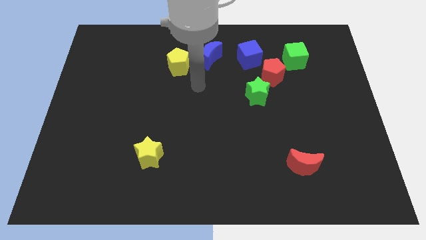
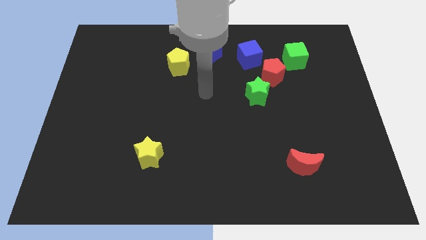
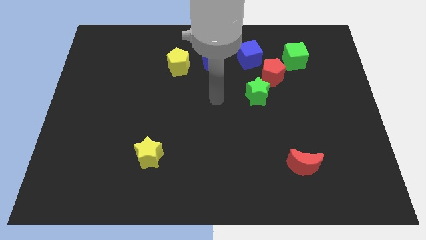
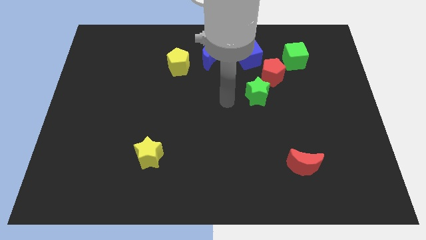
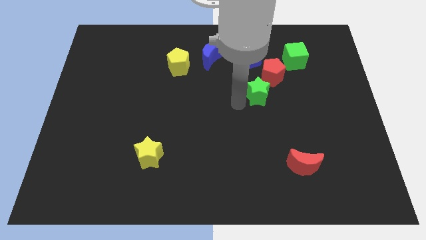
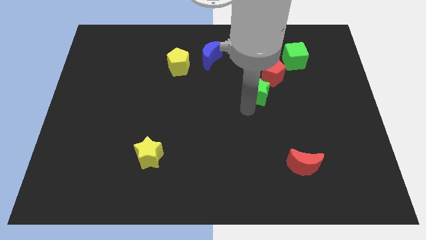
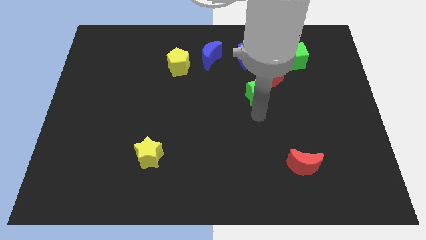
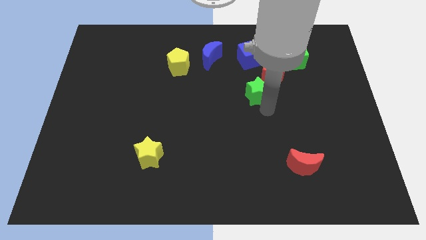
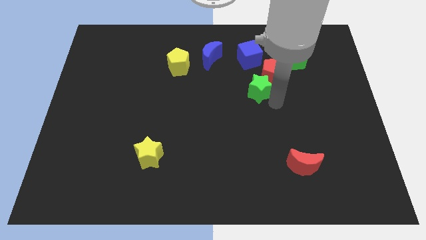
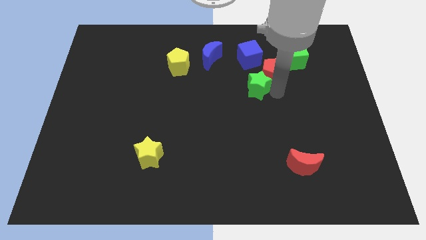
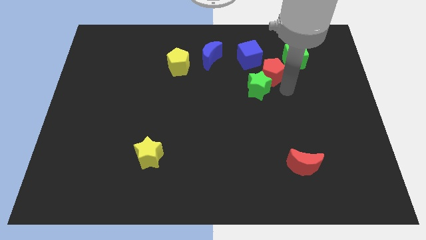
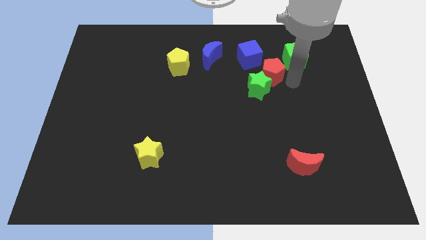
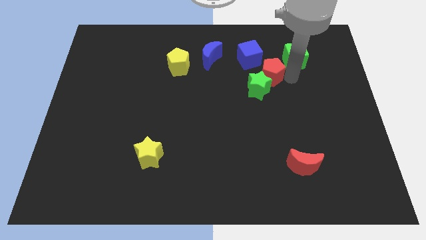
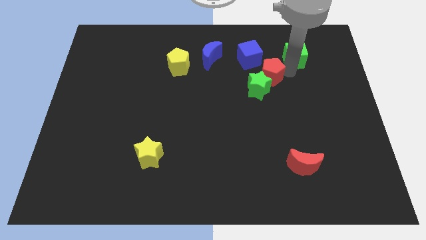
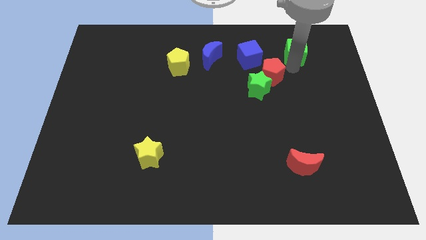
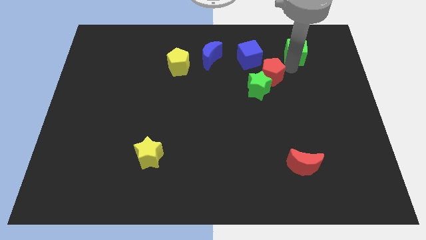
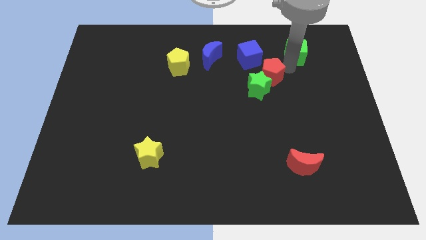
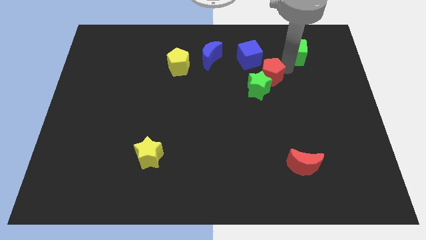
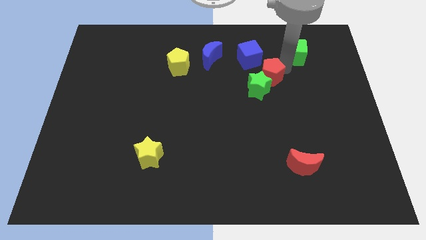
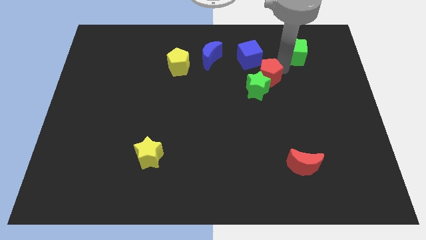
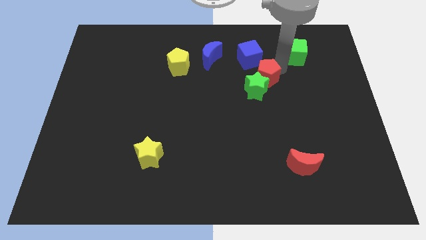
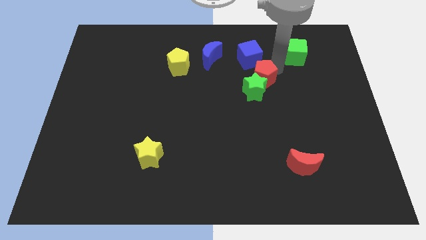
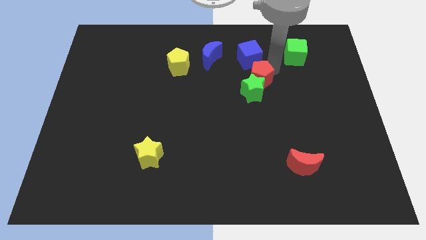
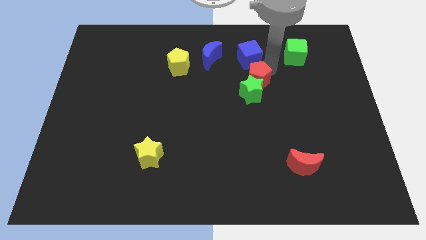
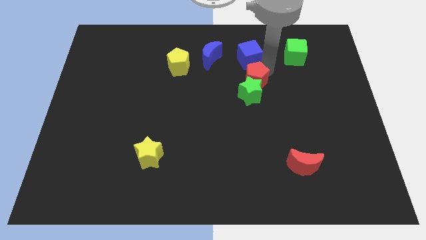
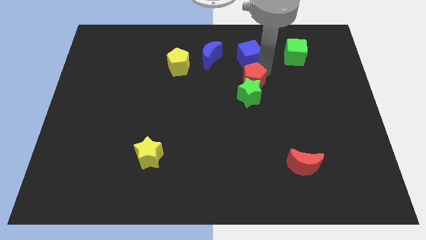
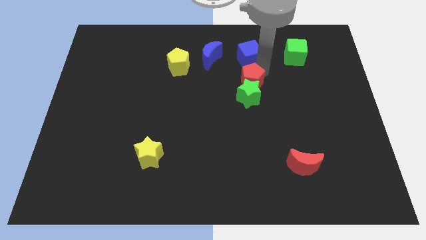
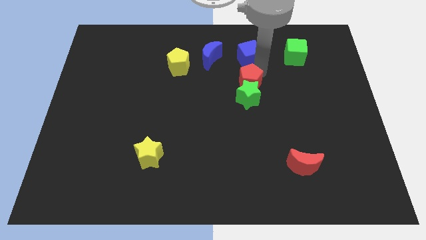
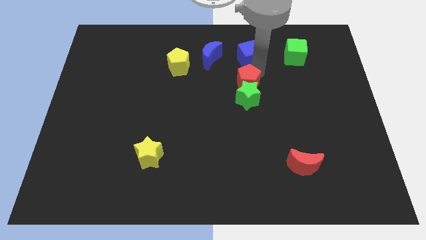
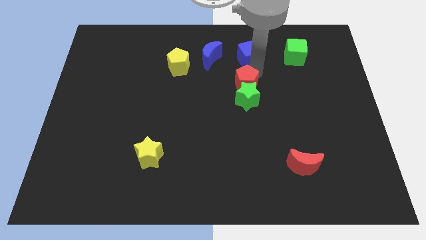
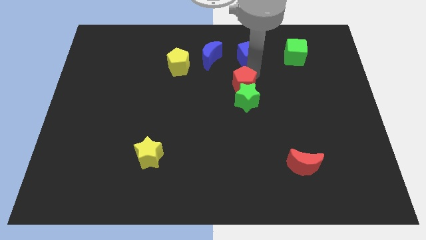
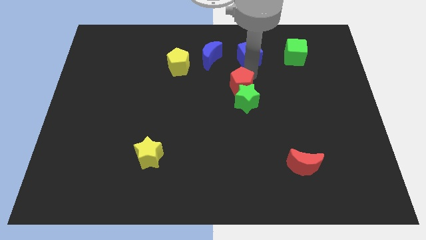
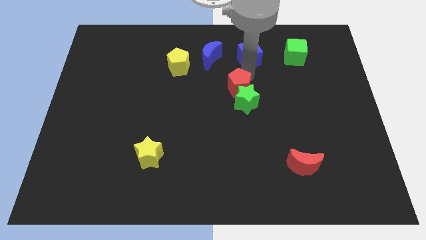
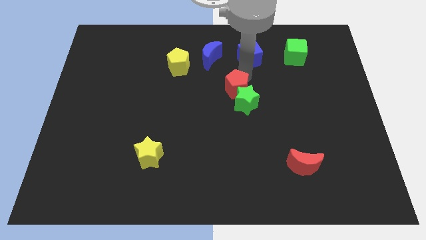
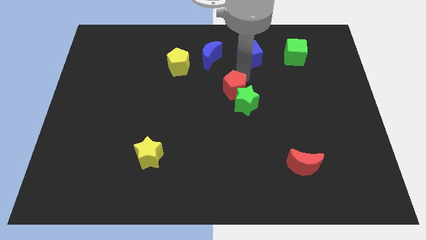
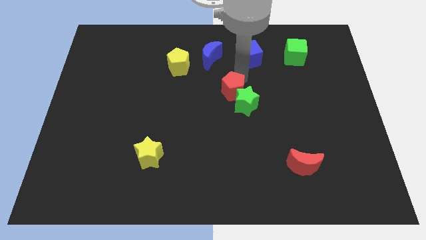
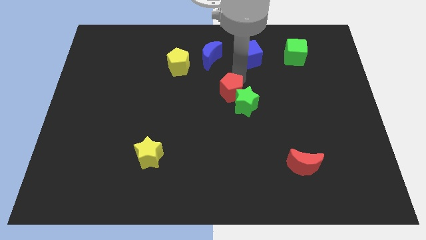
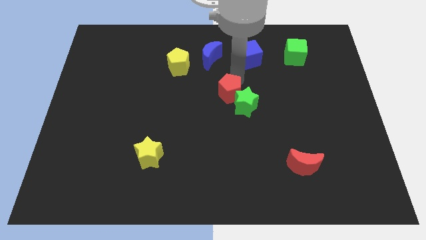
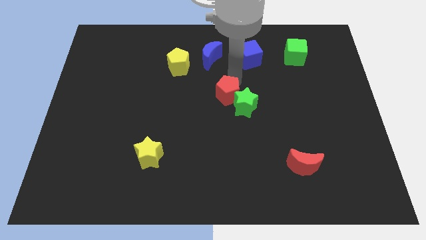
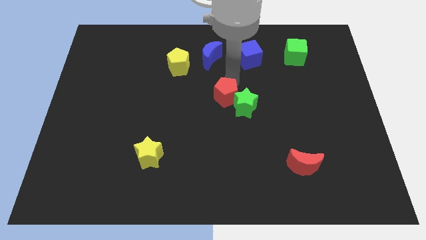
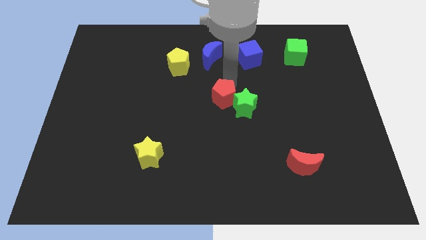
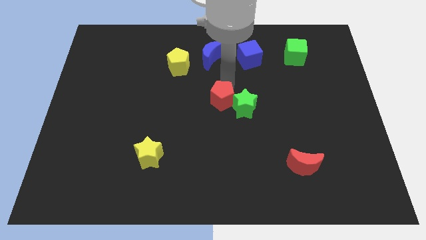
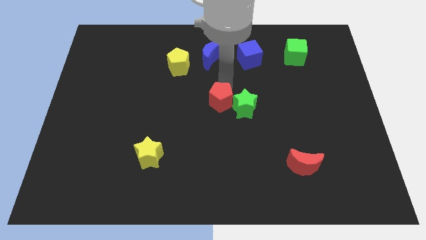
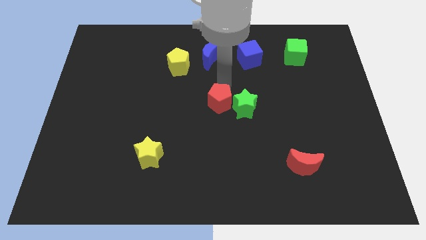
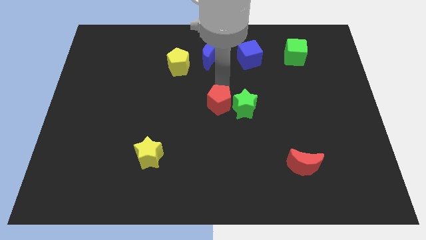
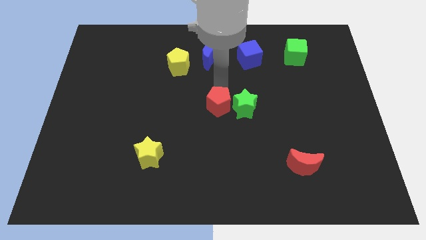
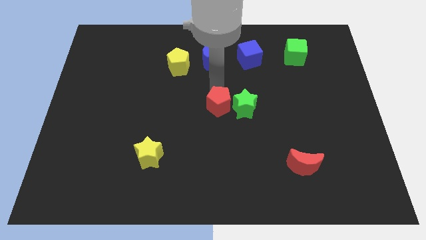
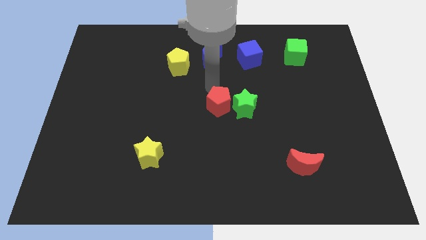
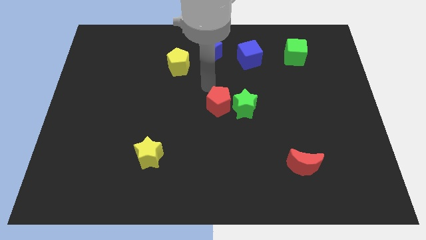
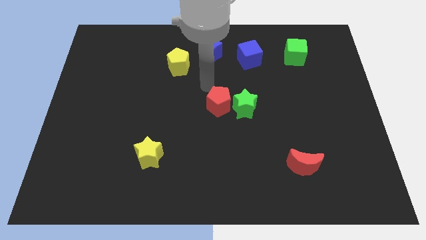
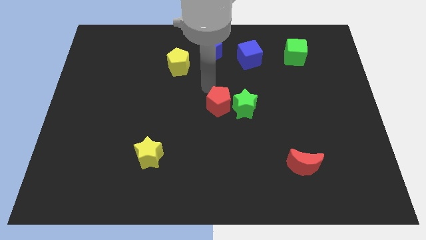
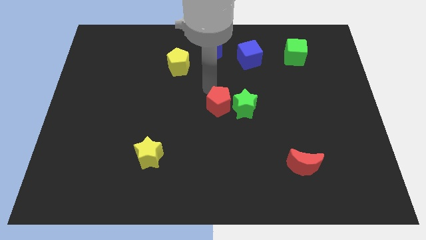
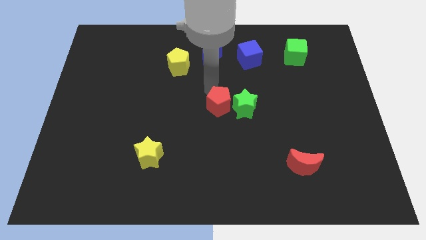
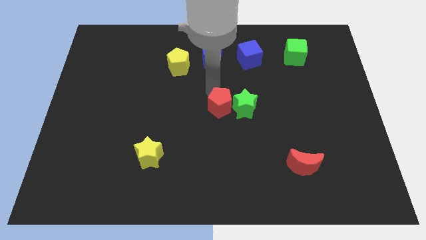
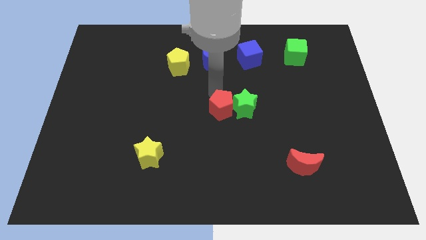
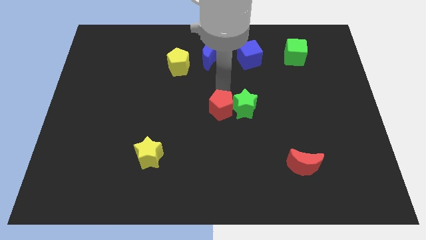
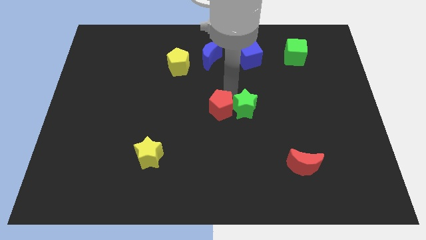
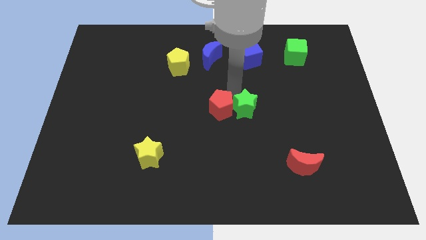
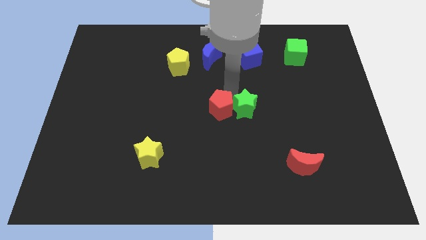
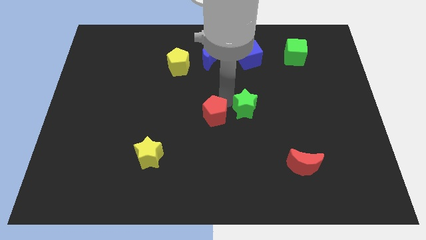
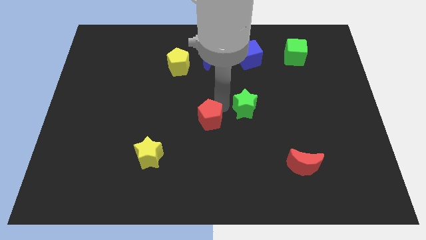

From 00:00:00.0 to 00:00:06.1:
slide the red pentagon downwards and left

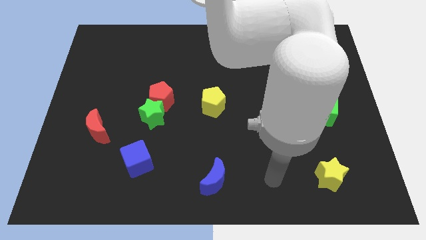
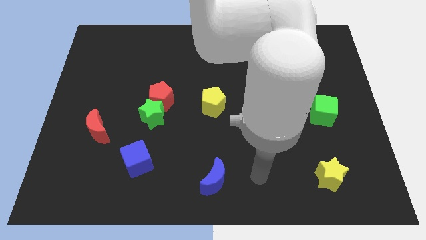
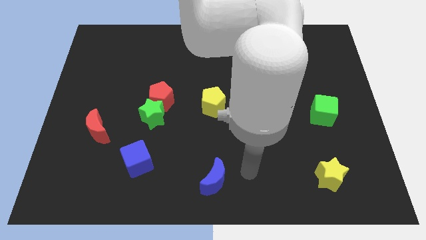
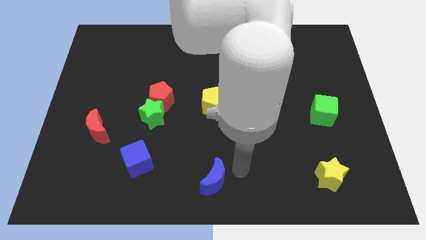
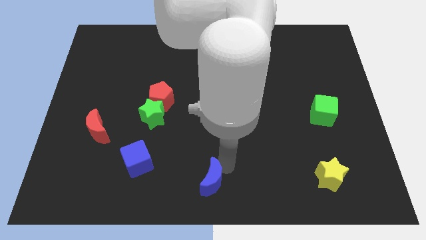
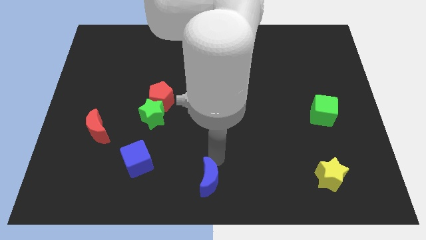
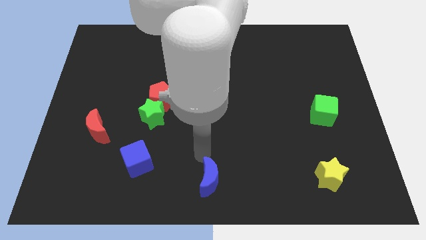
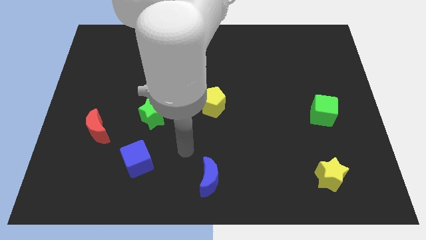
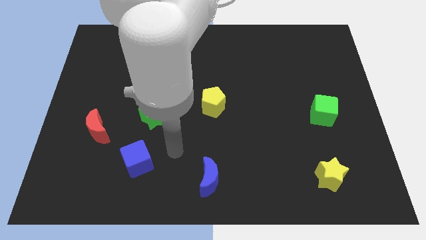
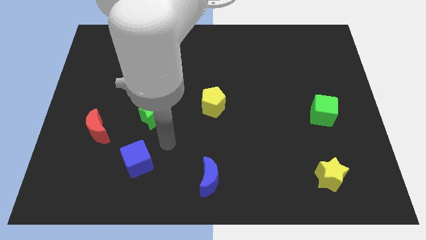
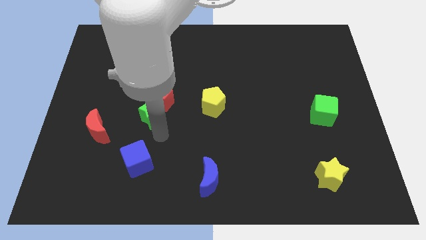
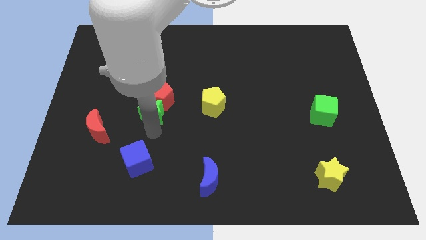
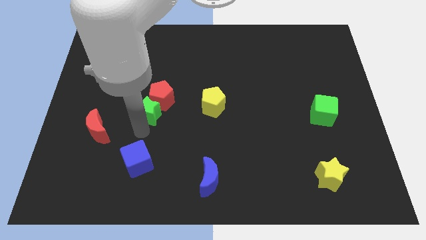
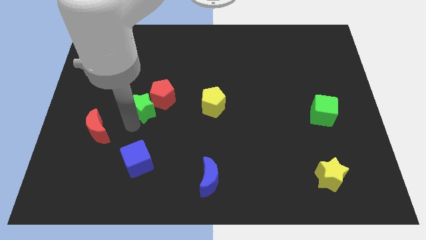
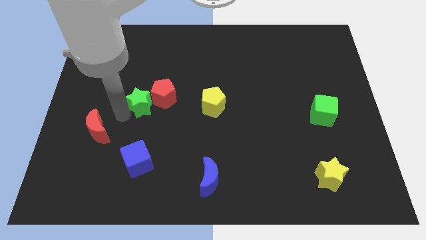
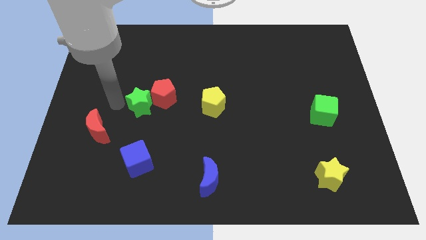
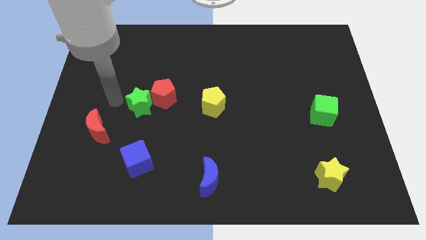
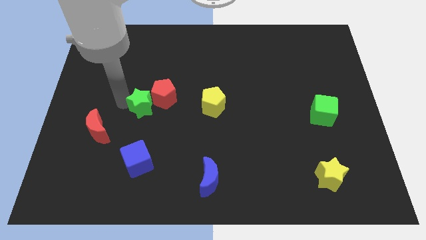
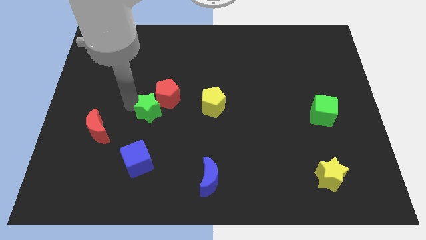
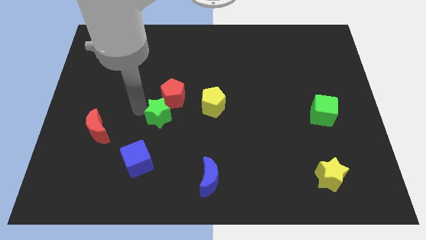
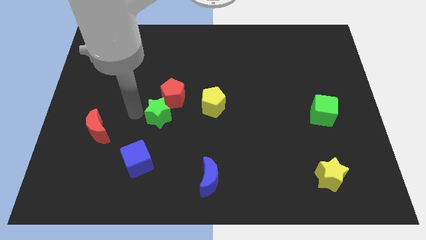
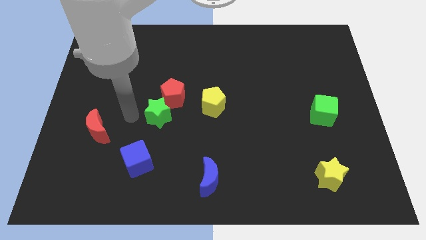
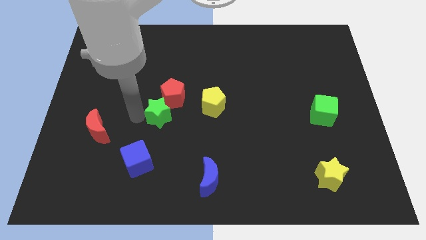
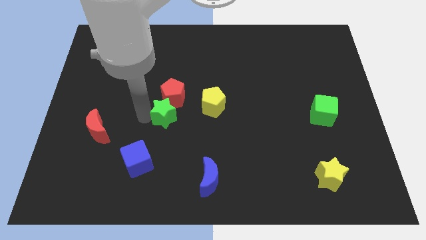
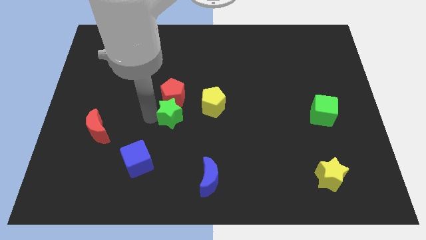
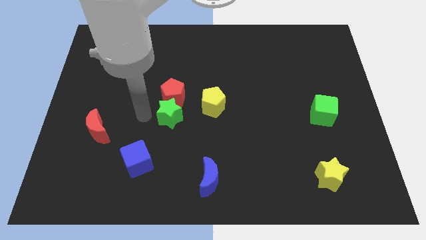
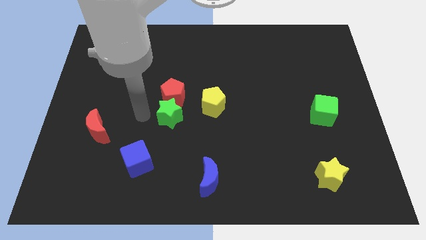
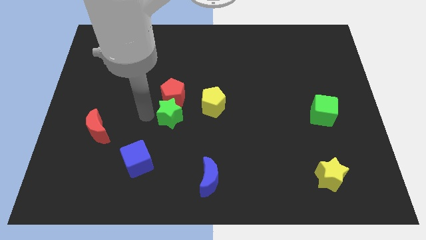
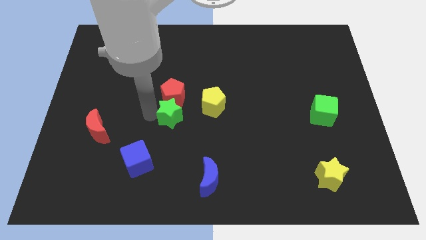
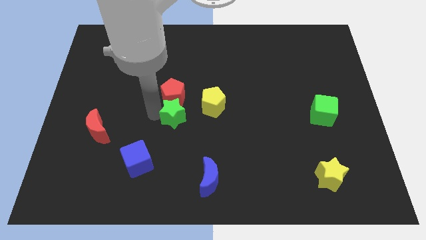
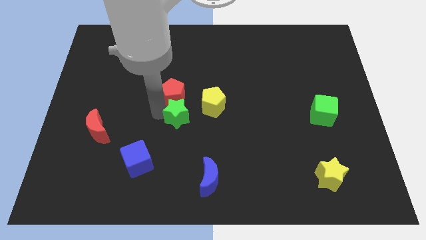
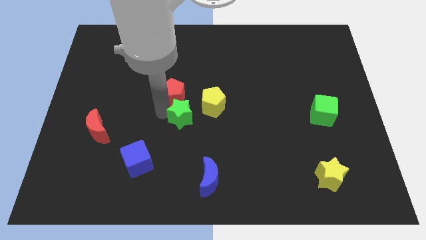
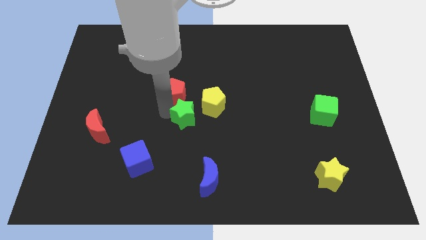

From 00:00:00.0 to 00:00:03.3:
move the green star right slightly
